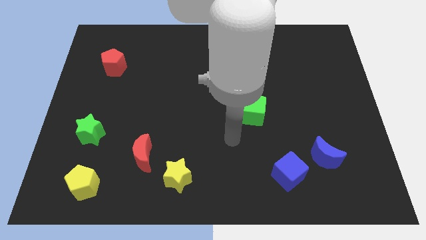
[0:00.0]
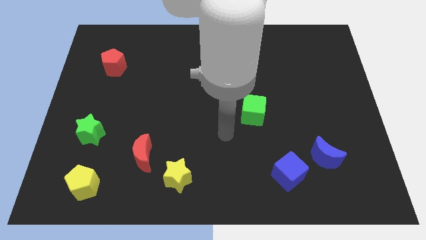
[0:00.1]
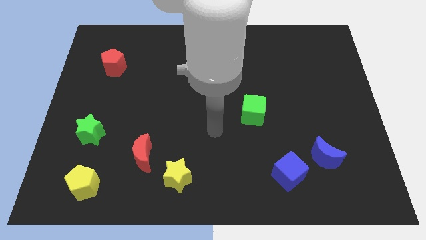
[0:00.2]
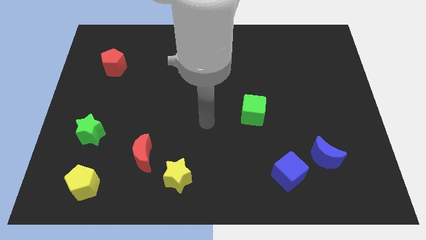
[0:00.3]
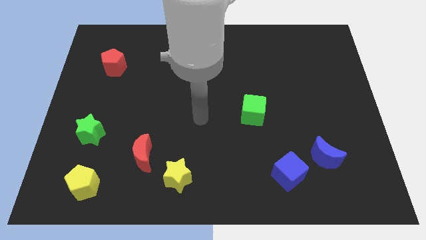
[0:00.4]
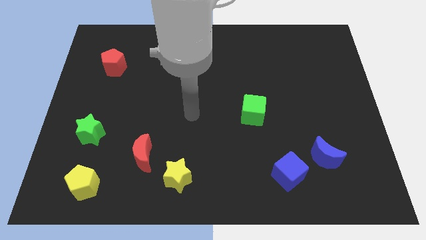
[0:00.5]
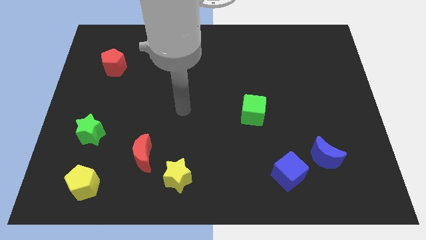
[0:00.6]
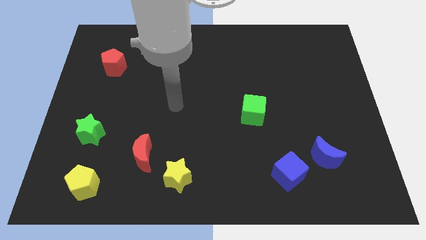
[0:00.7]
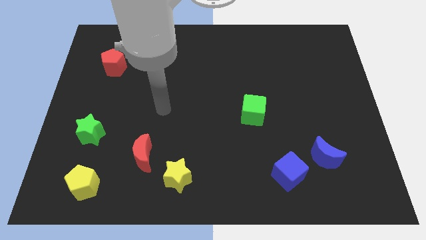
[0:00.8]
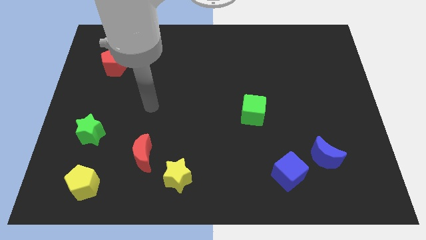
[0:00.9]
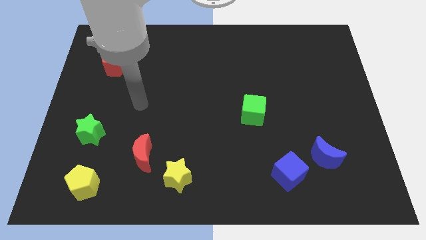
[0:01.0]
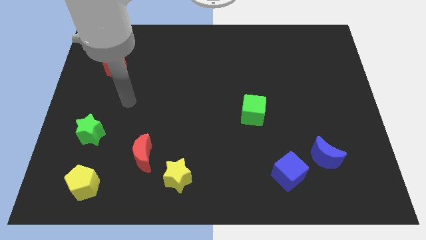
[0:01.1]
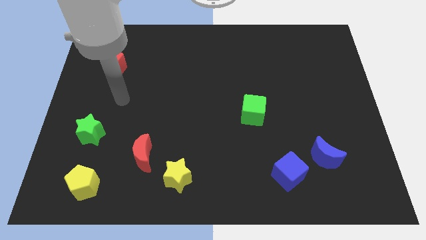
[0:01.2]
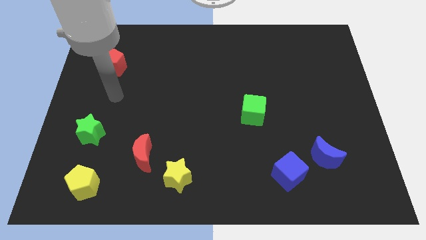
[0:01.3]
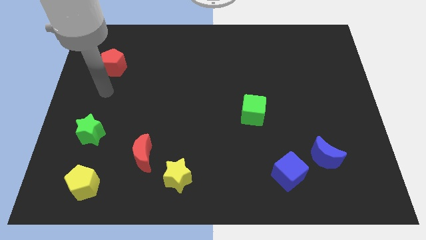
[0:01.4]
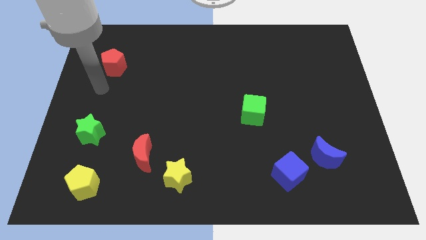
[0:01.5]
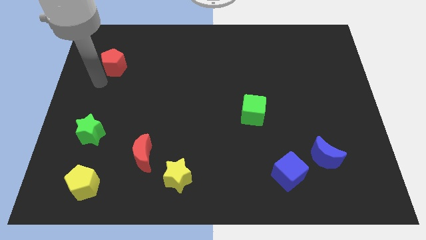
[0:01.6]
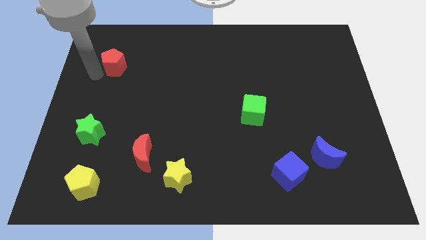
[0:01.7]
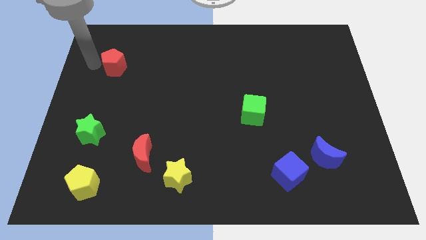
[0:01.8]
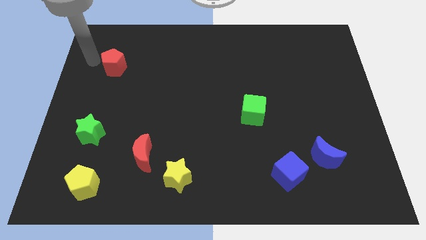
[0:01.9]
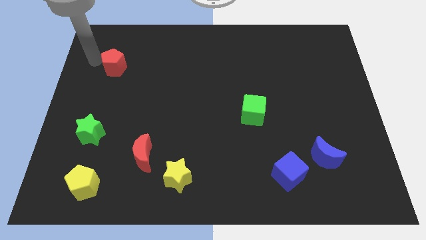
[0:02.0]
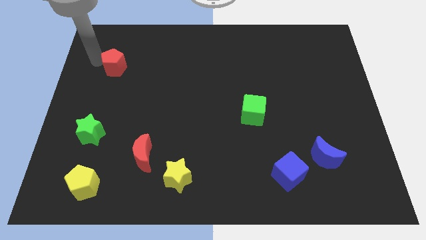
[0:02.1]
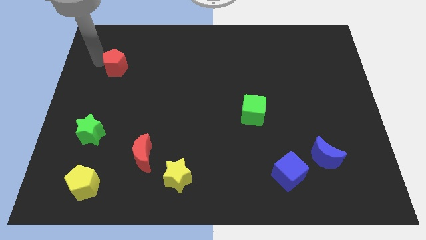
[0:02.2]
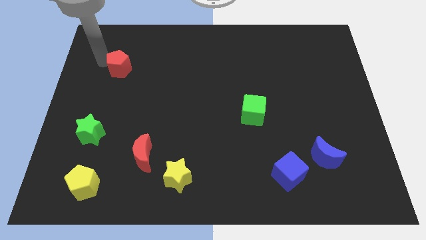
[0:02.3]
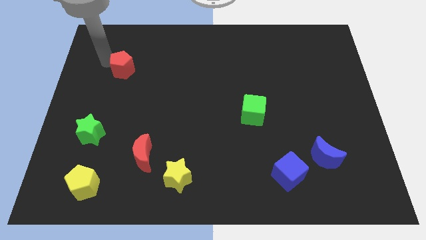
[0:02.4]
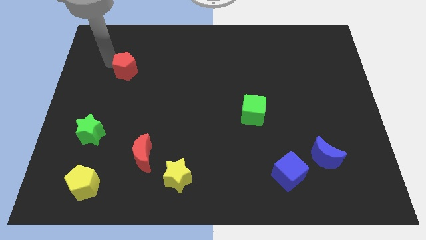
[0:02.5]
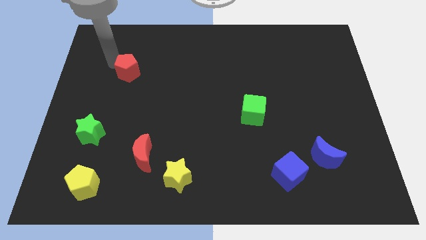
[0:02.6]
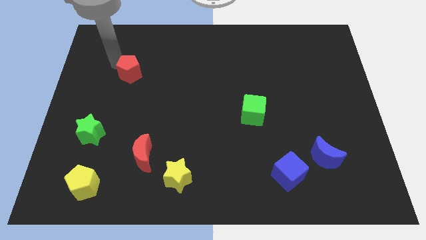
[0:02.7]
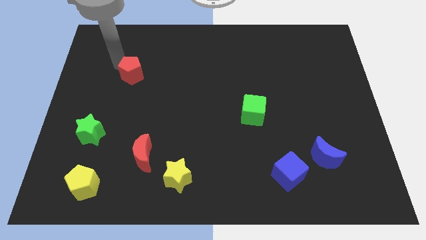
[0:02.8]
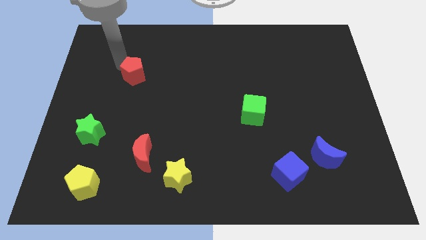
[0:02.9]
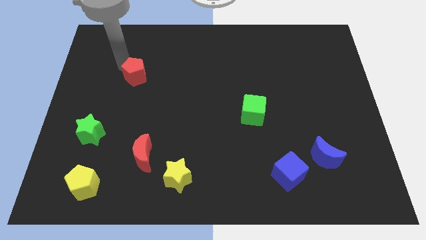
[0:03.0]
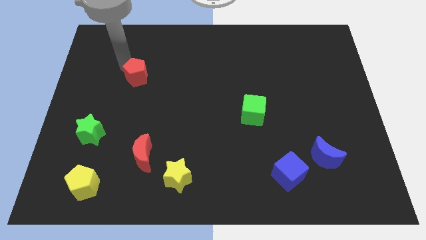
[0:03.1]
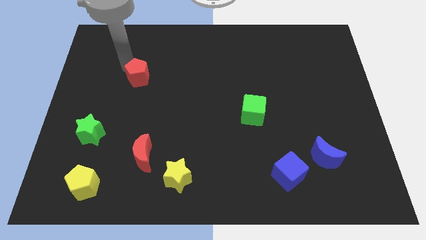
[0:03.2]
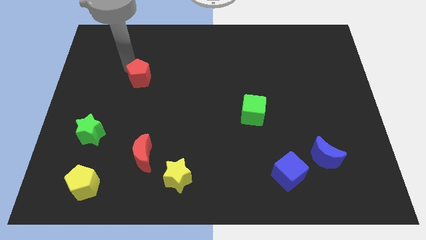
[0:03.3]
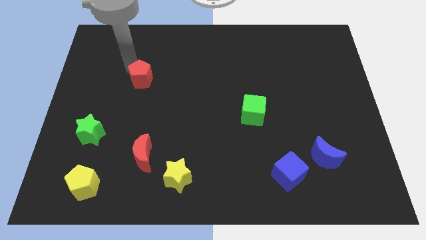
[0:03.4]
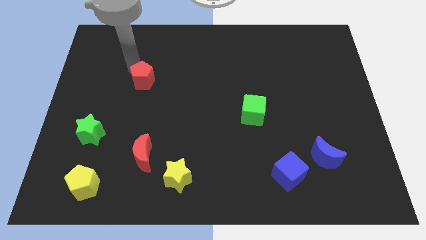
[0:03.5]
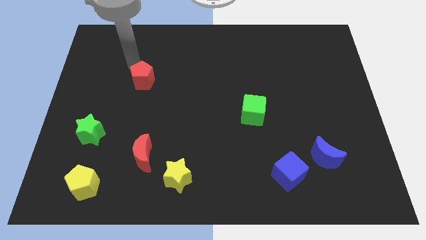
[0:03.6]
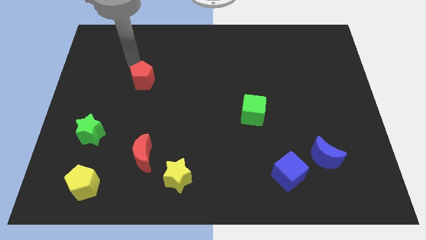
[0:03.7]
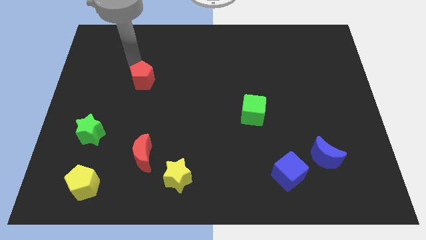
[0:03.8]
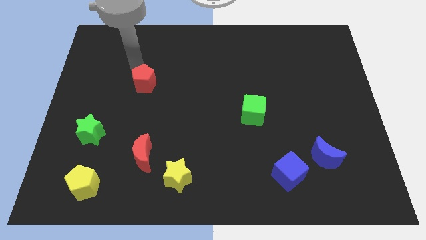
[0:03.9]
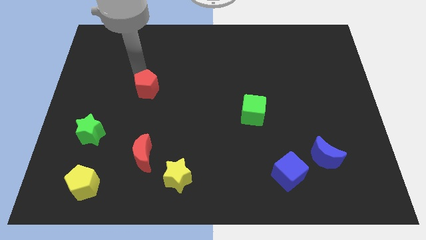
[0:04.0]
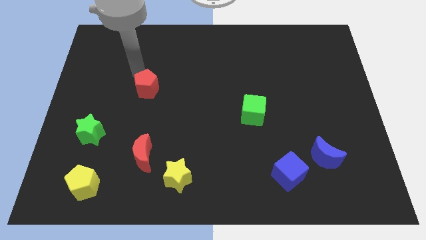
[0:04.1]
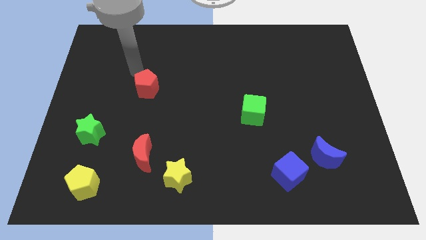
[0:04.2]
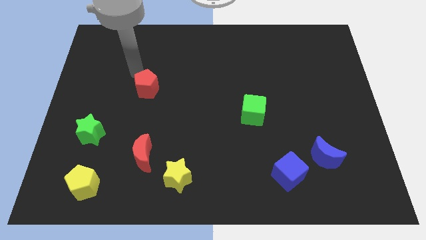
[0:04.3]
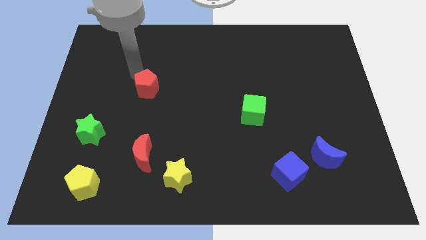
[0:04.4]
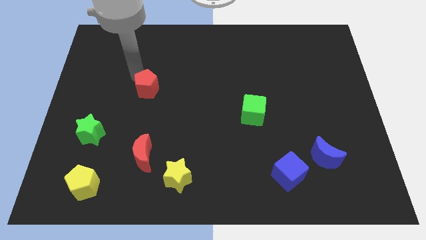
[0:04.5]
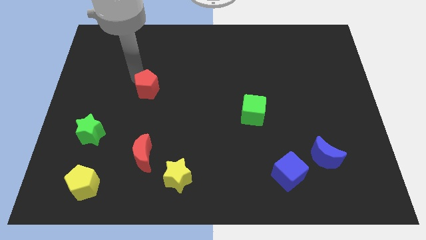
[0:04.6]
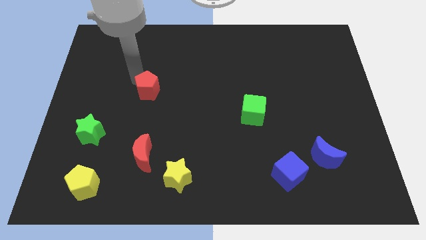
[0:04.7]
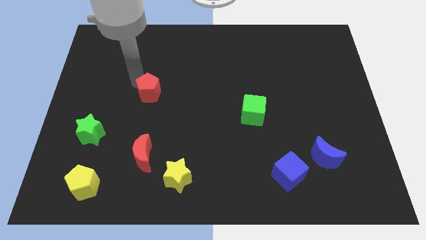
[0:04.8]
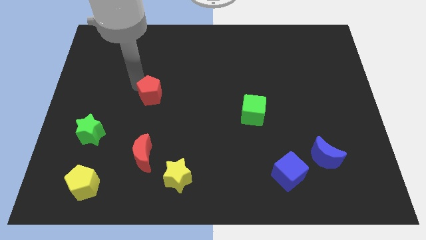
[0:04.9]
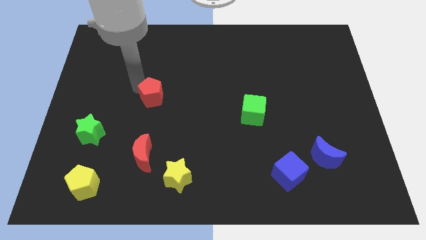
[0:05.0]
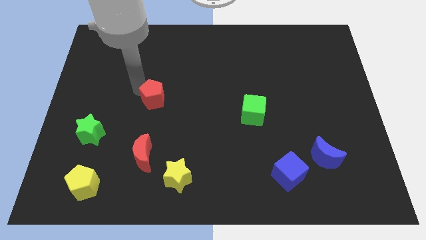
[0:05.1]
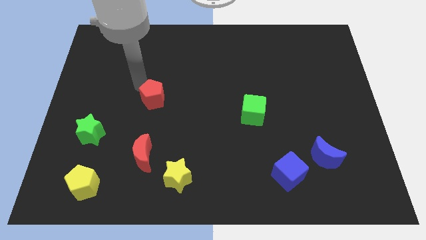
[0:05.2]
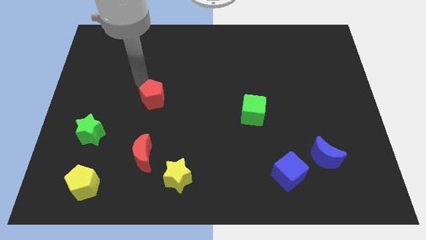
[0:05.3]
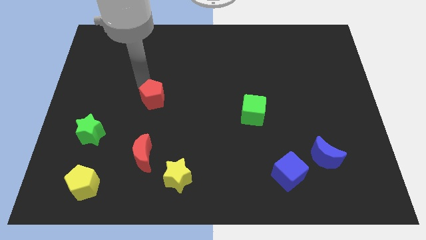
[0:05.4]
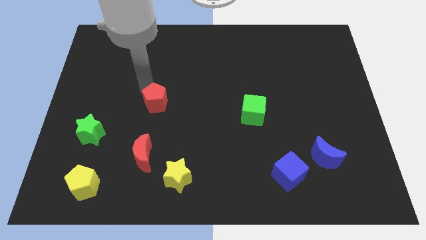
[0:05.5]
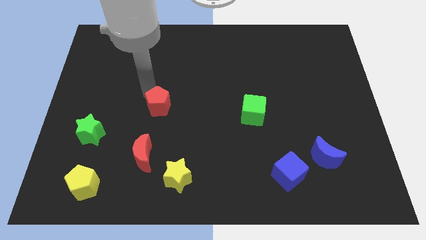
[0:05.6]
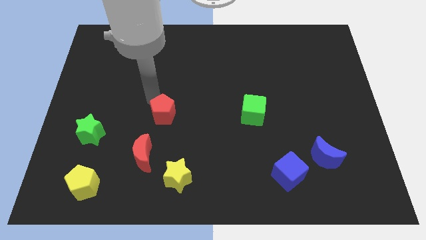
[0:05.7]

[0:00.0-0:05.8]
push the red pentagon down and then to the right

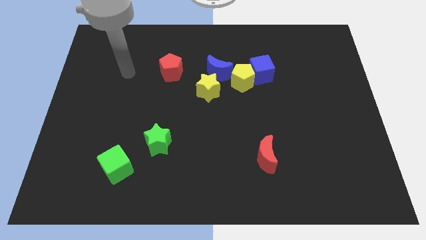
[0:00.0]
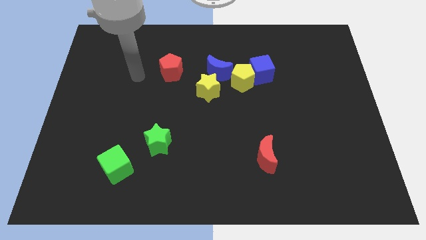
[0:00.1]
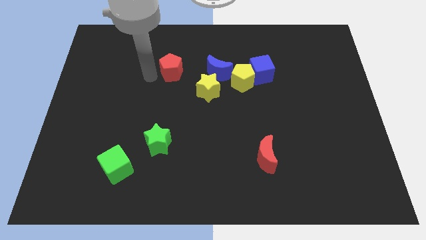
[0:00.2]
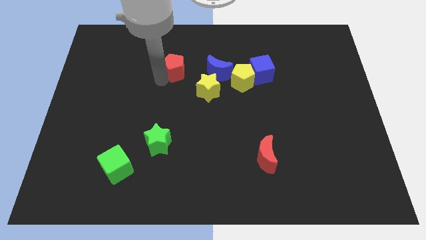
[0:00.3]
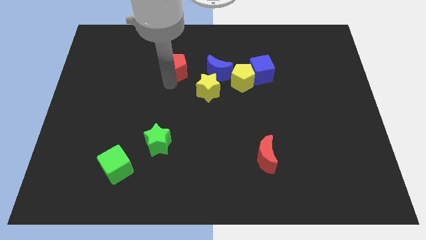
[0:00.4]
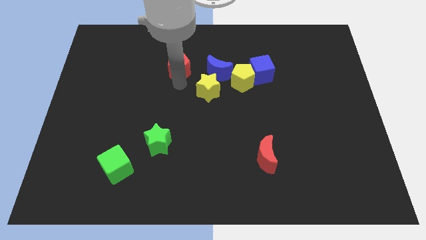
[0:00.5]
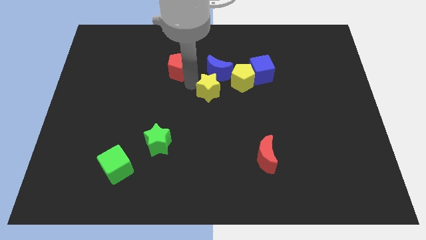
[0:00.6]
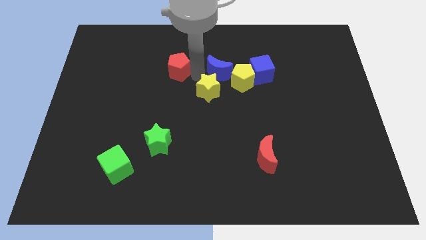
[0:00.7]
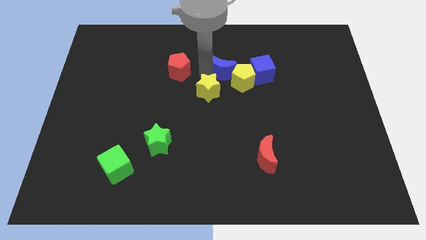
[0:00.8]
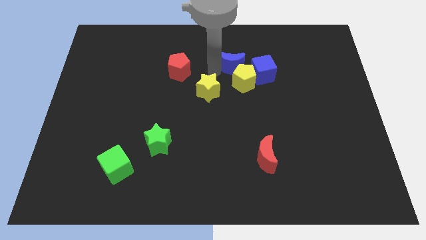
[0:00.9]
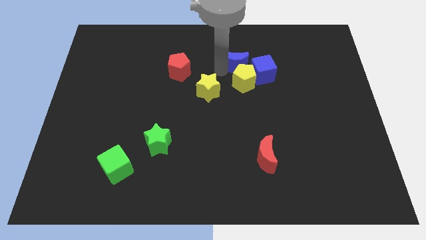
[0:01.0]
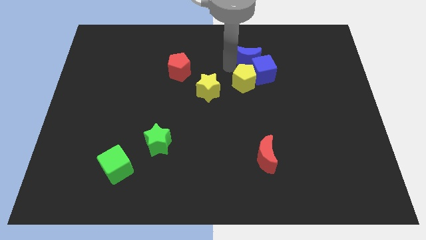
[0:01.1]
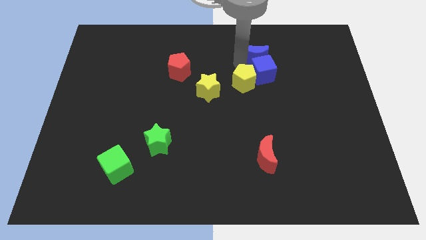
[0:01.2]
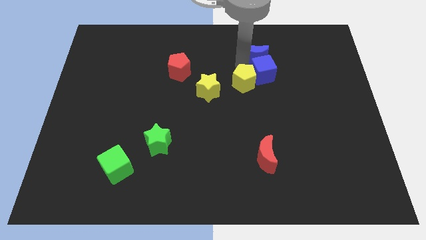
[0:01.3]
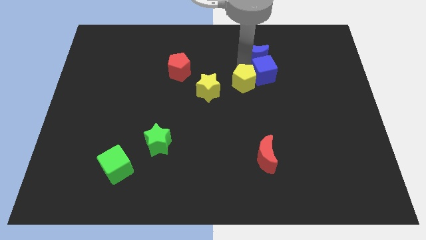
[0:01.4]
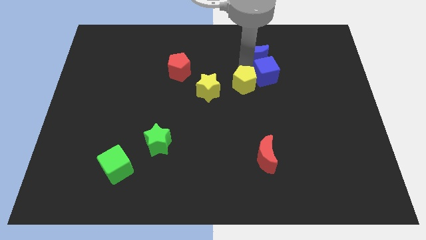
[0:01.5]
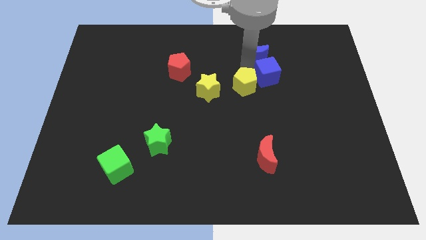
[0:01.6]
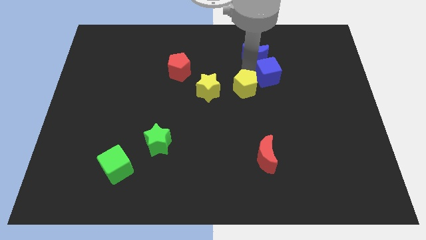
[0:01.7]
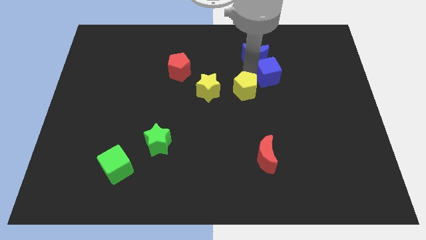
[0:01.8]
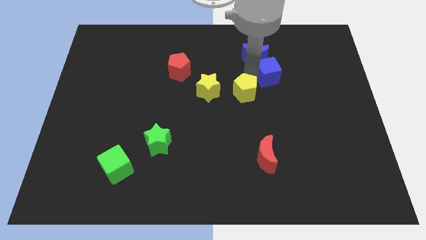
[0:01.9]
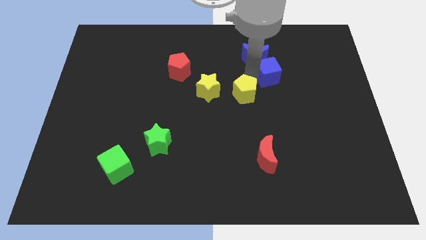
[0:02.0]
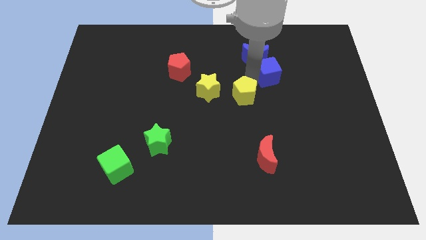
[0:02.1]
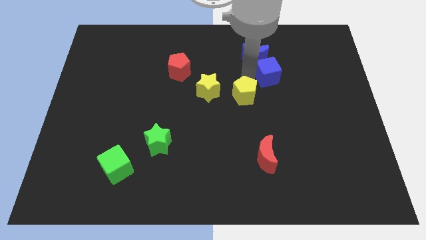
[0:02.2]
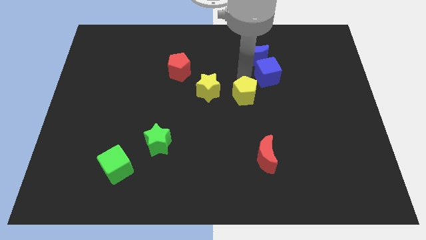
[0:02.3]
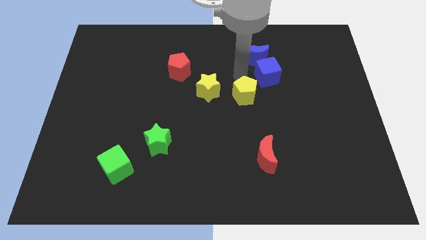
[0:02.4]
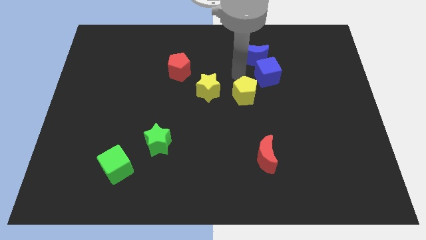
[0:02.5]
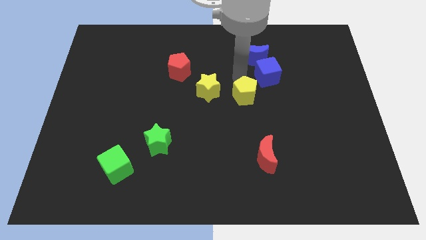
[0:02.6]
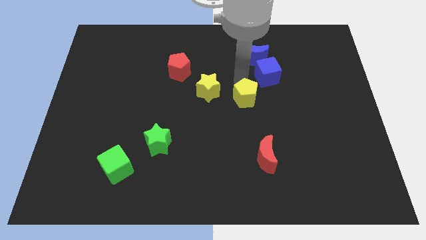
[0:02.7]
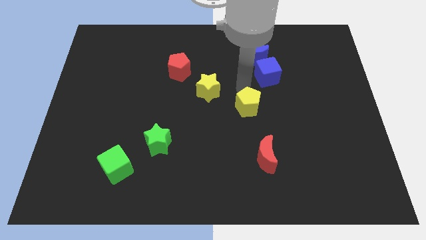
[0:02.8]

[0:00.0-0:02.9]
slightly move the yellow pentagon down
